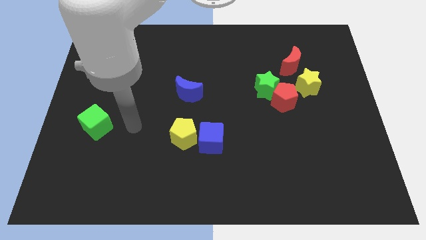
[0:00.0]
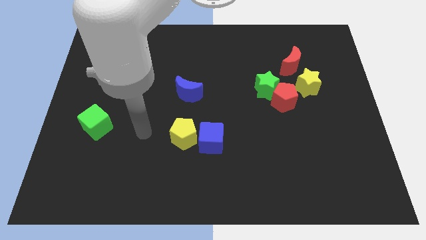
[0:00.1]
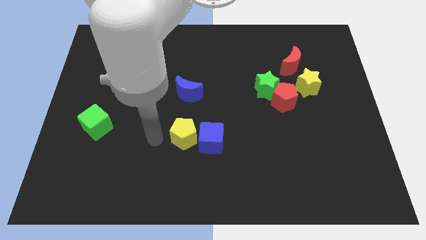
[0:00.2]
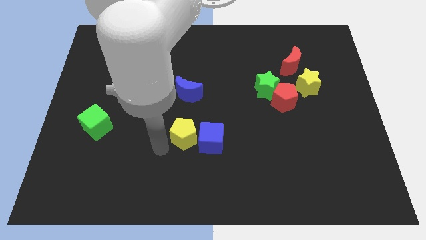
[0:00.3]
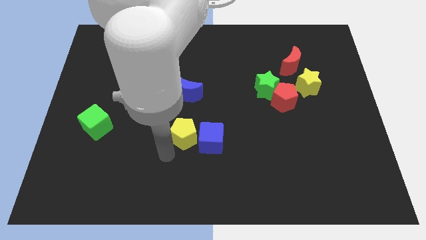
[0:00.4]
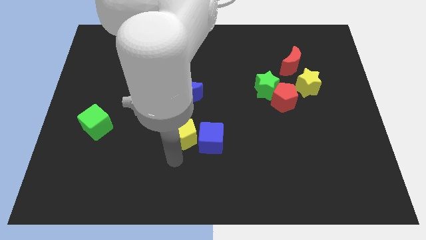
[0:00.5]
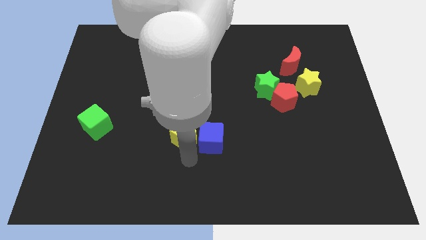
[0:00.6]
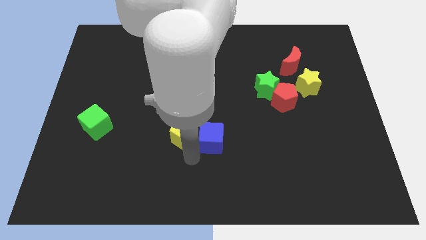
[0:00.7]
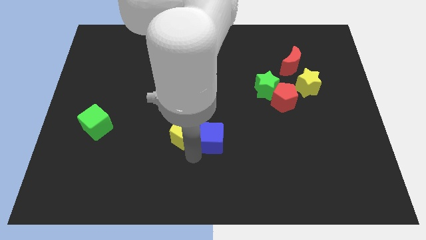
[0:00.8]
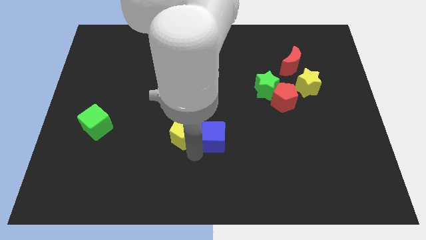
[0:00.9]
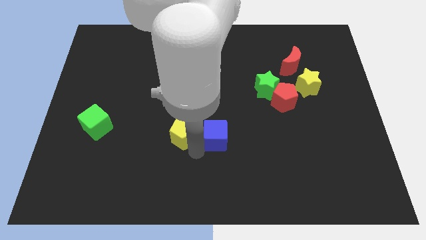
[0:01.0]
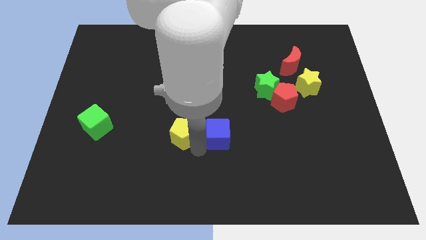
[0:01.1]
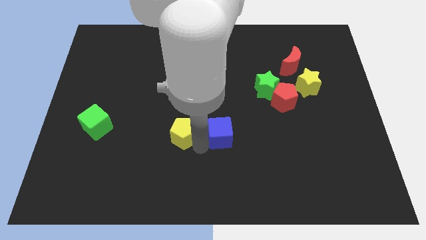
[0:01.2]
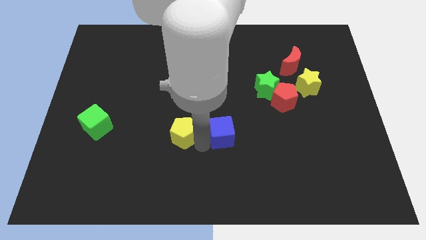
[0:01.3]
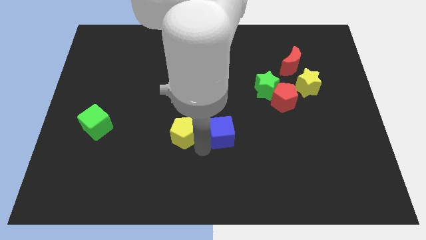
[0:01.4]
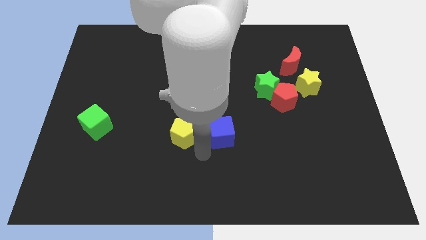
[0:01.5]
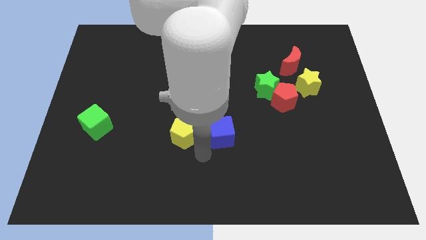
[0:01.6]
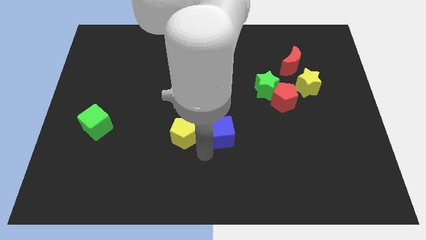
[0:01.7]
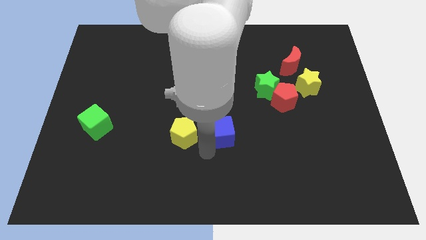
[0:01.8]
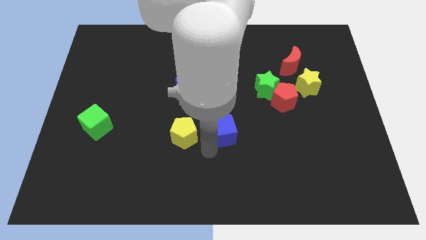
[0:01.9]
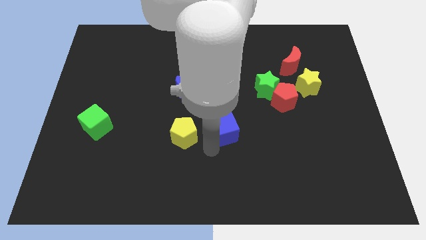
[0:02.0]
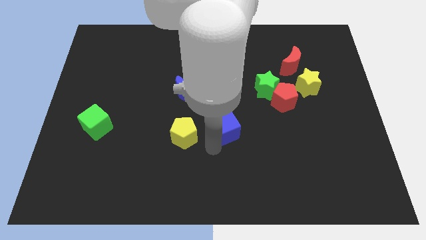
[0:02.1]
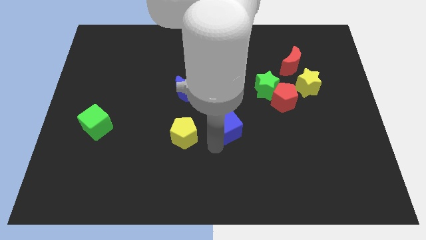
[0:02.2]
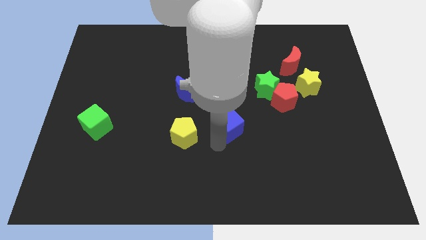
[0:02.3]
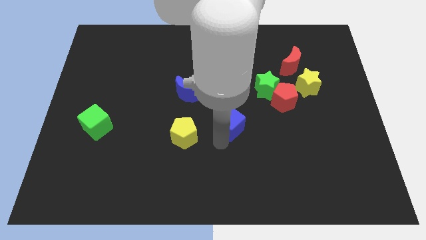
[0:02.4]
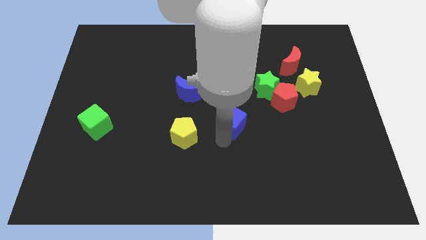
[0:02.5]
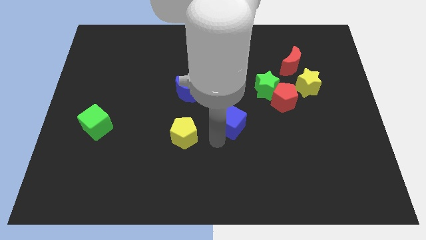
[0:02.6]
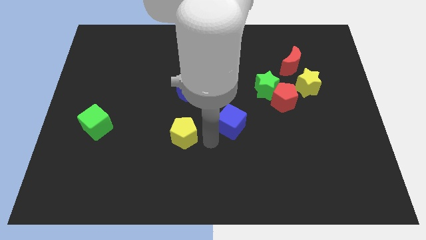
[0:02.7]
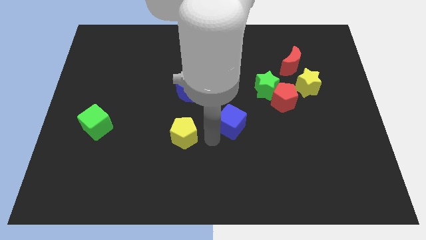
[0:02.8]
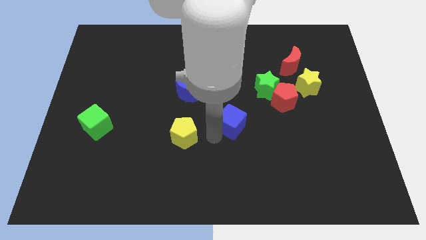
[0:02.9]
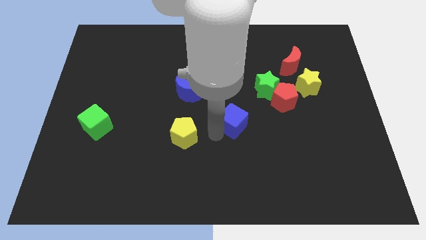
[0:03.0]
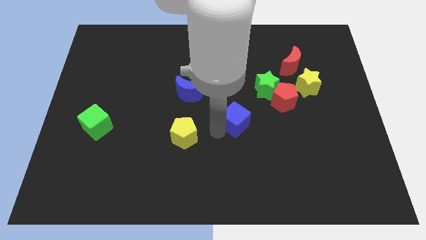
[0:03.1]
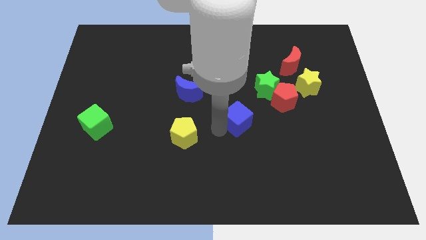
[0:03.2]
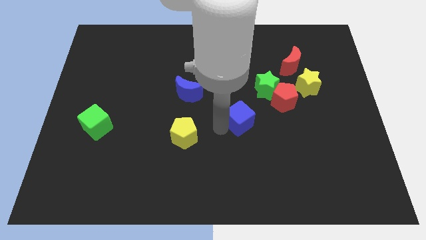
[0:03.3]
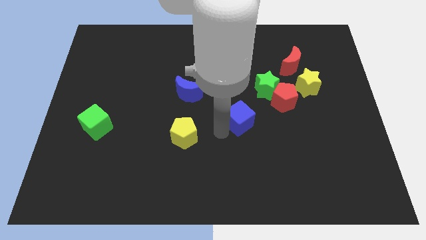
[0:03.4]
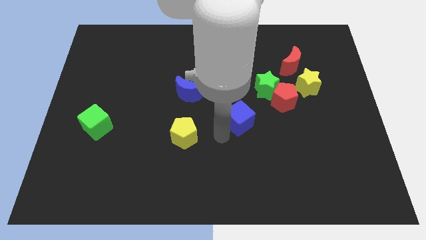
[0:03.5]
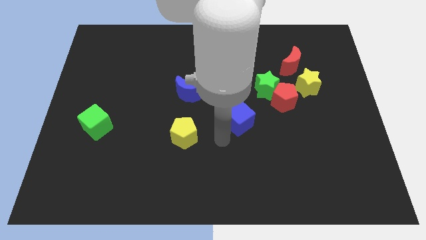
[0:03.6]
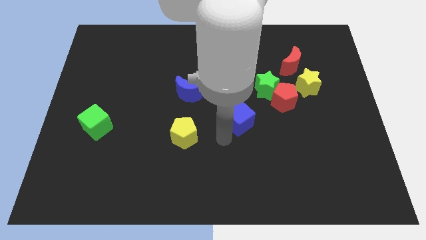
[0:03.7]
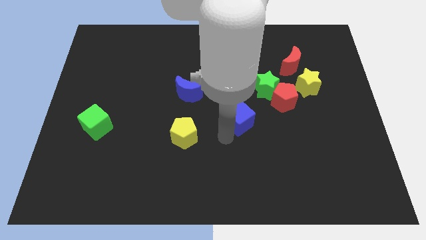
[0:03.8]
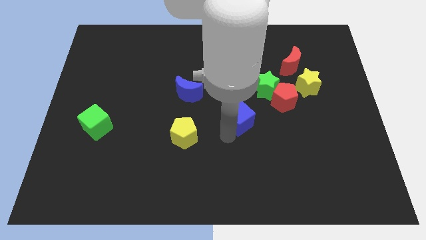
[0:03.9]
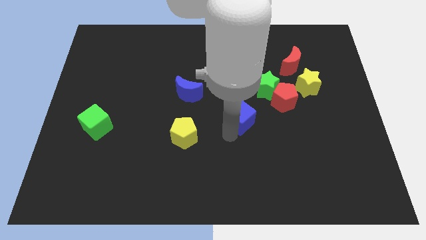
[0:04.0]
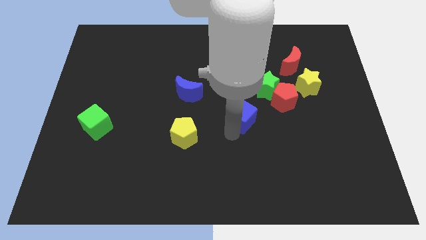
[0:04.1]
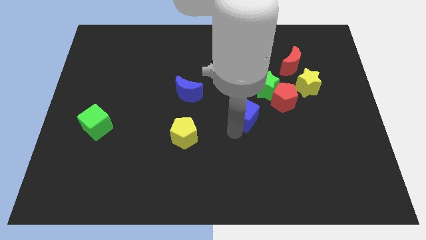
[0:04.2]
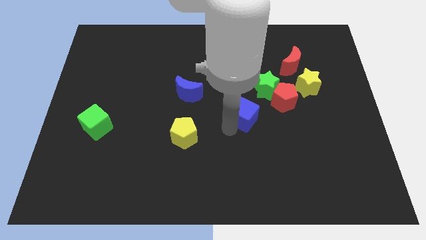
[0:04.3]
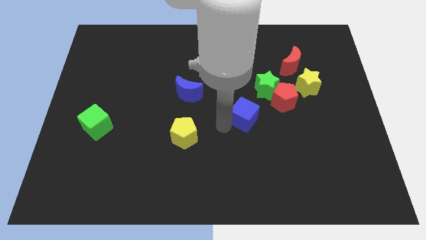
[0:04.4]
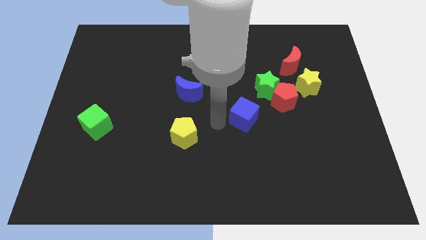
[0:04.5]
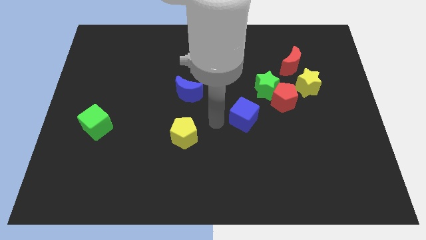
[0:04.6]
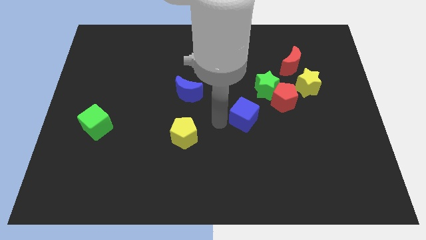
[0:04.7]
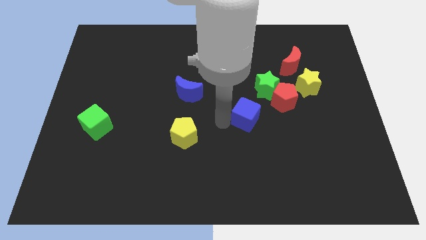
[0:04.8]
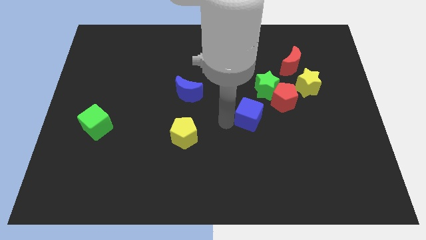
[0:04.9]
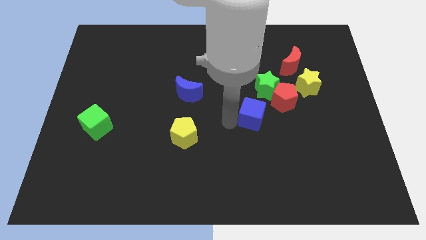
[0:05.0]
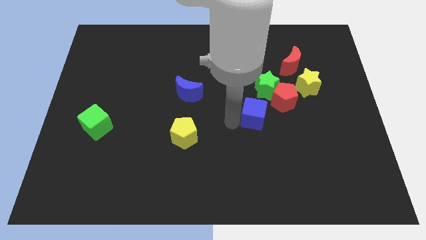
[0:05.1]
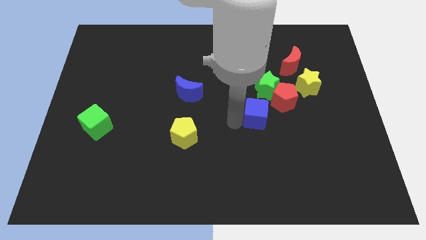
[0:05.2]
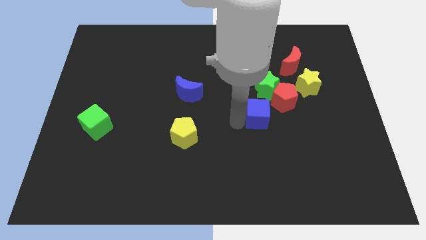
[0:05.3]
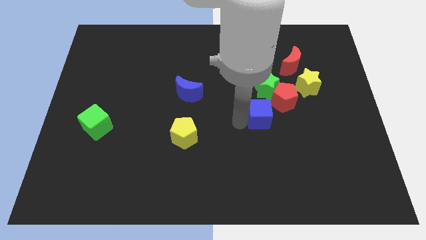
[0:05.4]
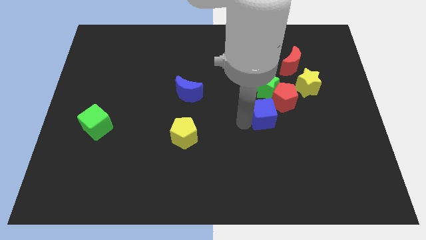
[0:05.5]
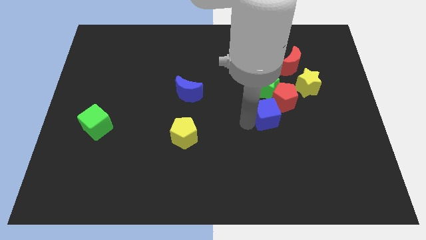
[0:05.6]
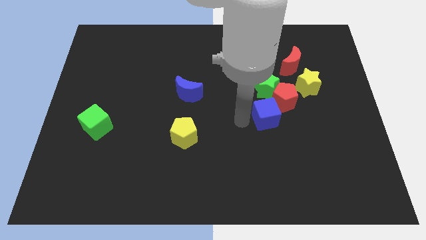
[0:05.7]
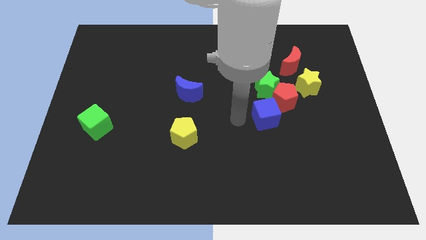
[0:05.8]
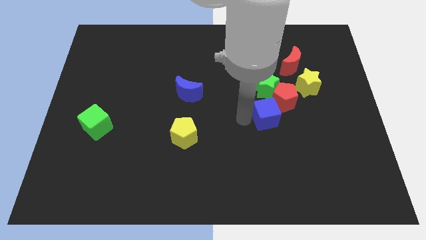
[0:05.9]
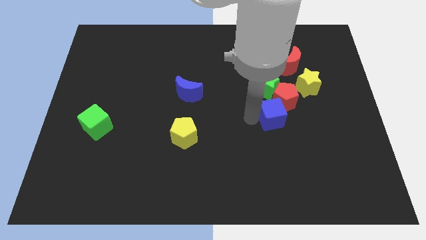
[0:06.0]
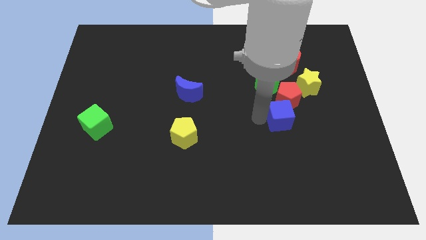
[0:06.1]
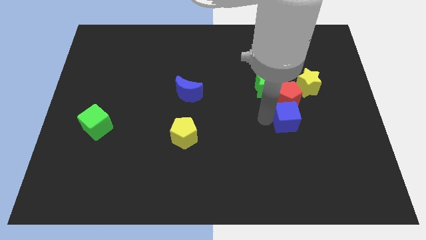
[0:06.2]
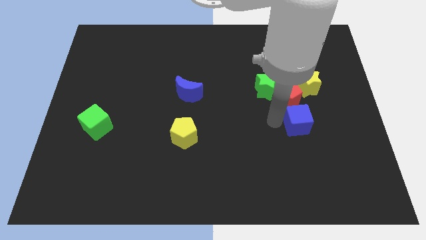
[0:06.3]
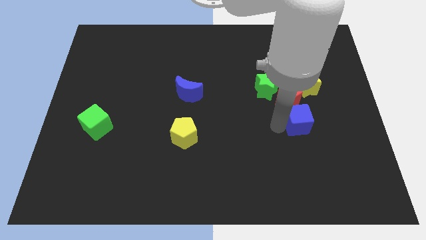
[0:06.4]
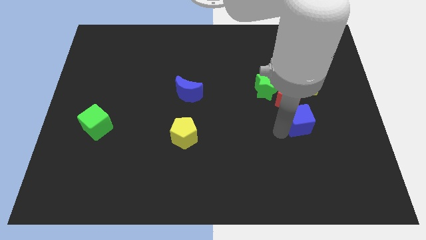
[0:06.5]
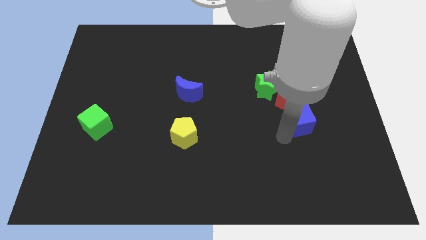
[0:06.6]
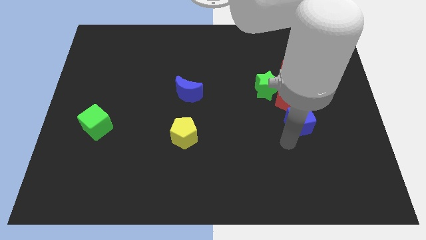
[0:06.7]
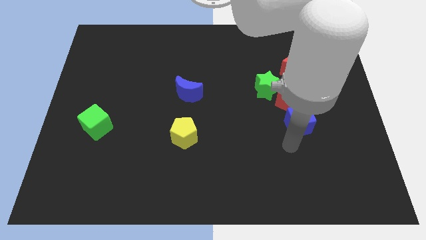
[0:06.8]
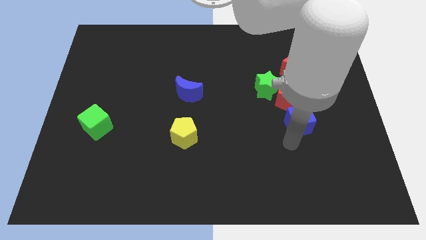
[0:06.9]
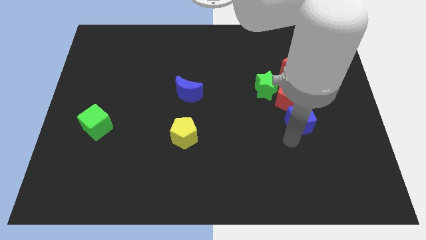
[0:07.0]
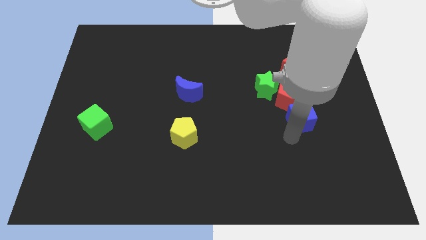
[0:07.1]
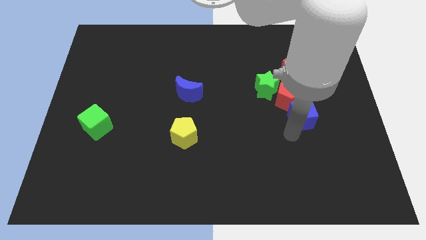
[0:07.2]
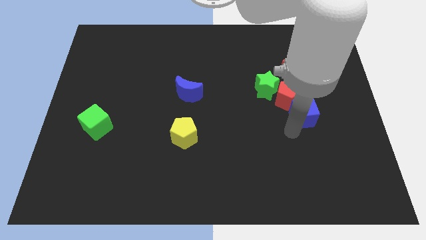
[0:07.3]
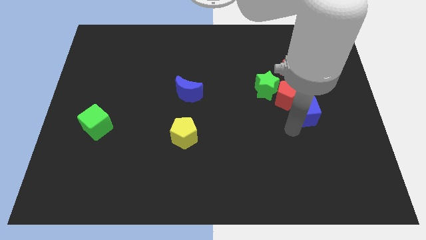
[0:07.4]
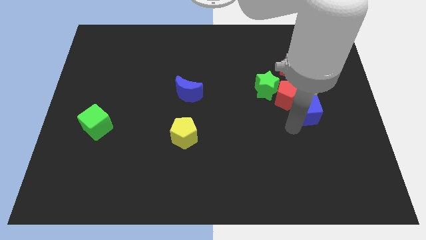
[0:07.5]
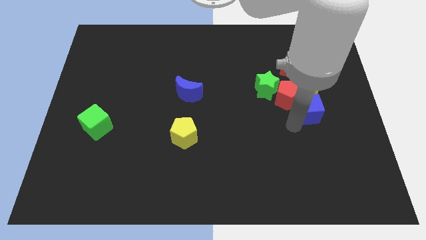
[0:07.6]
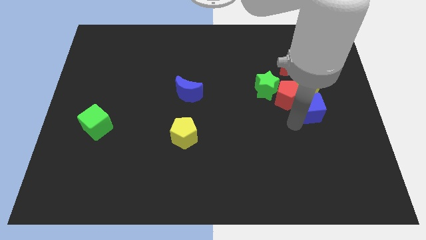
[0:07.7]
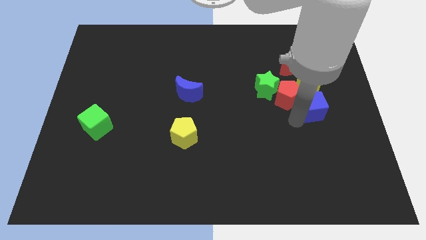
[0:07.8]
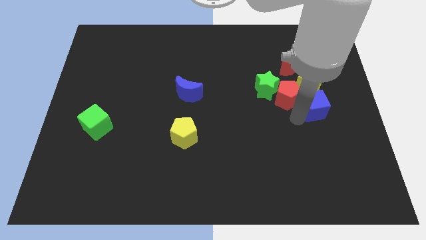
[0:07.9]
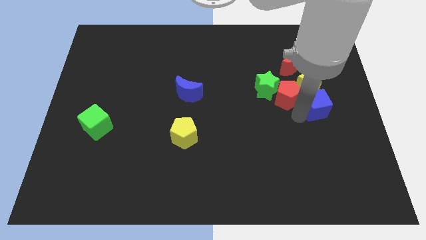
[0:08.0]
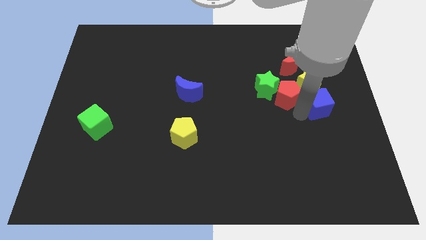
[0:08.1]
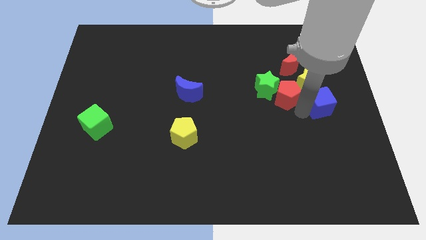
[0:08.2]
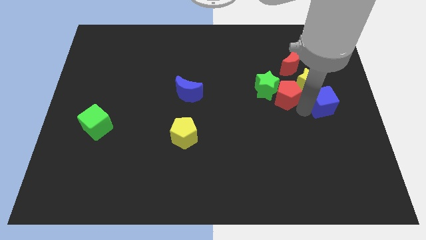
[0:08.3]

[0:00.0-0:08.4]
put the blue cube to the yellow star
